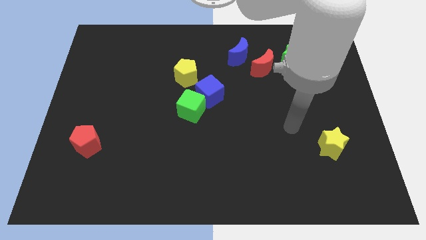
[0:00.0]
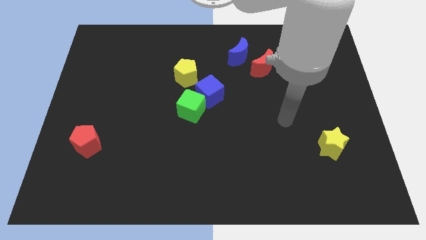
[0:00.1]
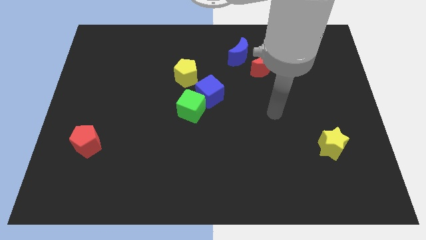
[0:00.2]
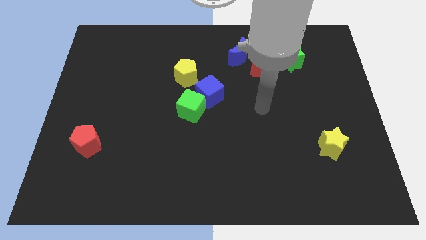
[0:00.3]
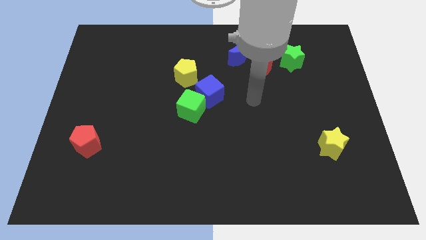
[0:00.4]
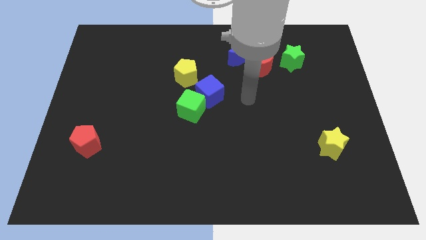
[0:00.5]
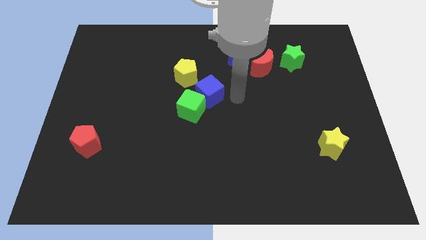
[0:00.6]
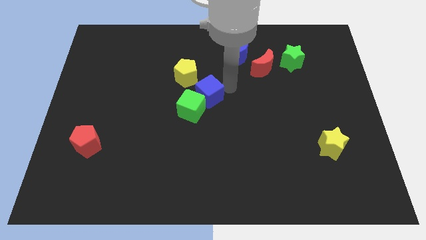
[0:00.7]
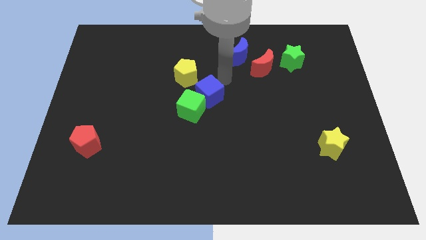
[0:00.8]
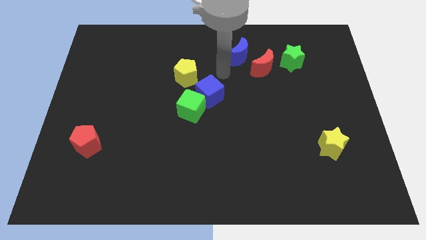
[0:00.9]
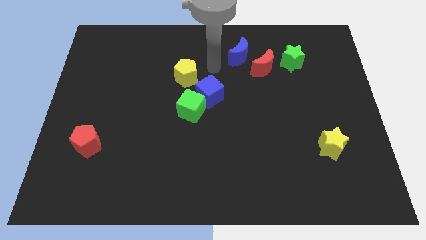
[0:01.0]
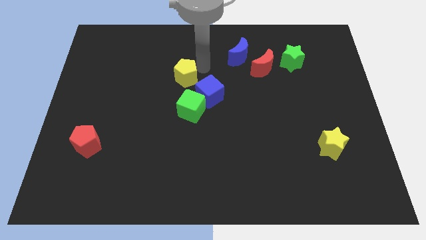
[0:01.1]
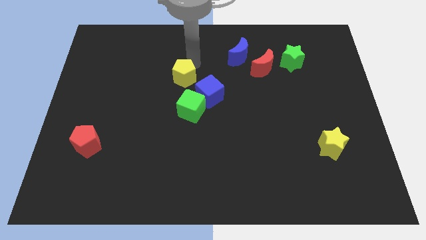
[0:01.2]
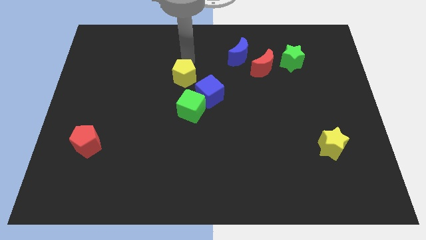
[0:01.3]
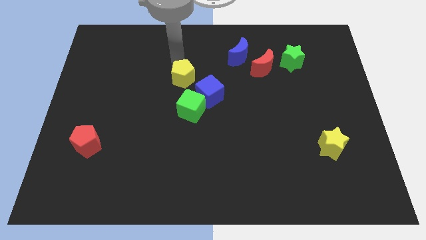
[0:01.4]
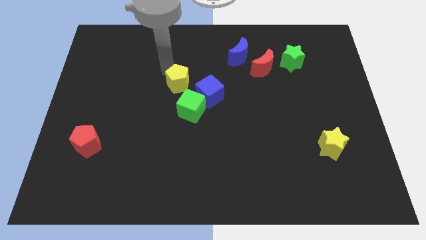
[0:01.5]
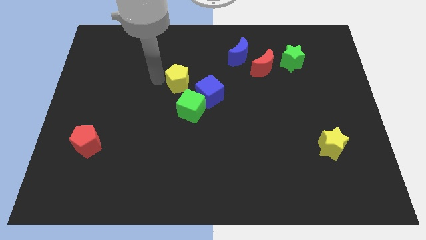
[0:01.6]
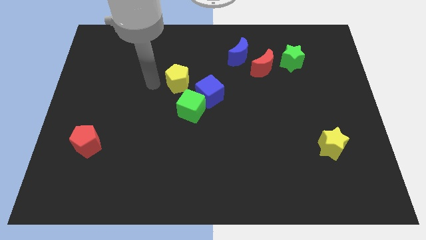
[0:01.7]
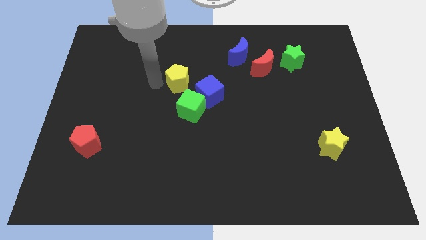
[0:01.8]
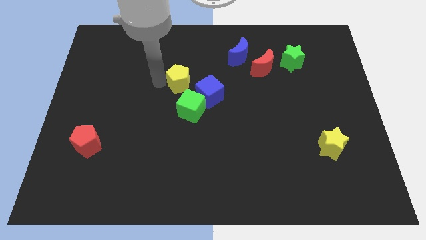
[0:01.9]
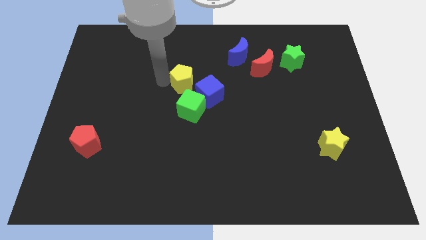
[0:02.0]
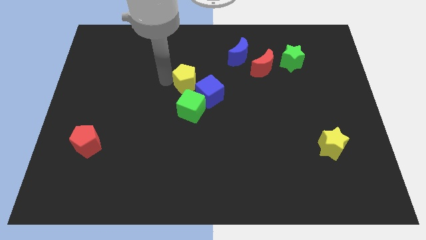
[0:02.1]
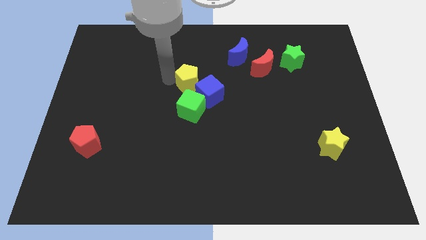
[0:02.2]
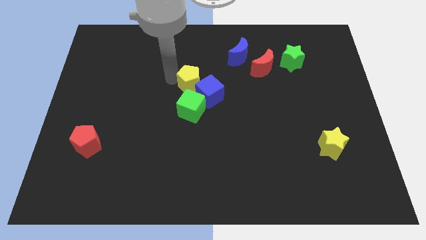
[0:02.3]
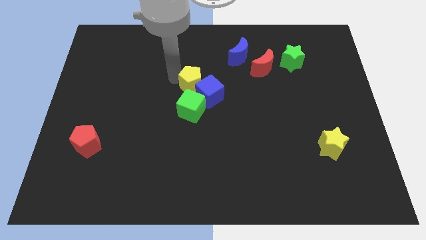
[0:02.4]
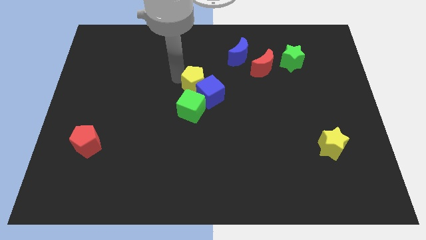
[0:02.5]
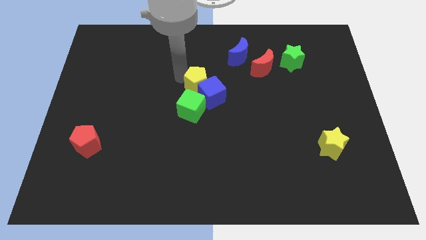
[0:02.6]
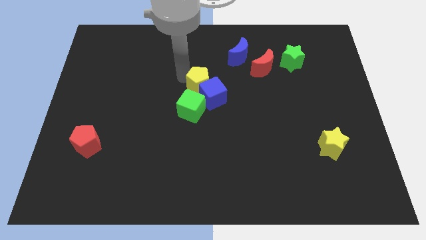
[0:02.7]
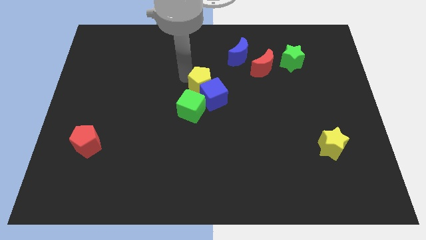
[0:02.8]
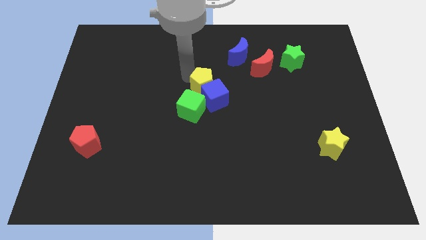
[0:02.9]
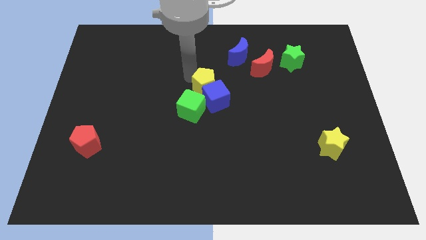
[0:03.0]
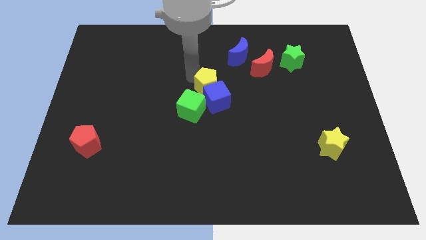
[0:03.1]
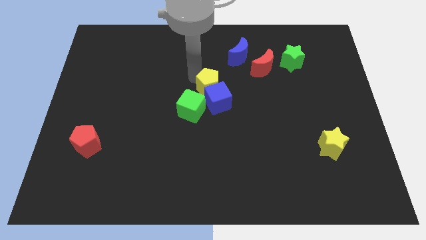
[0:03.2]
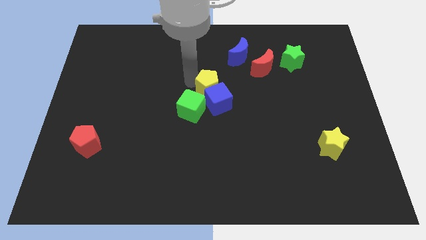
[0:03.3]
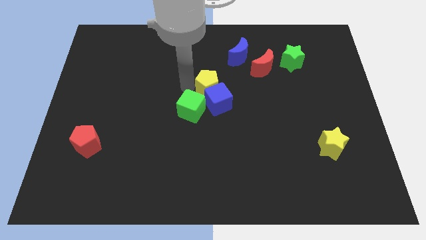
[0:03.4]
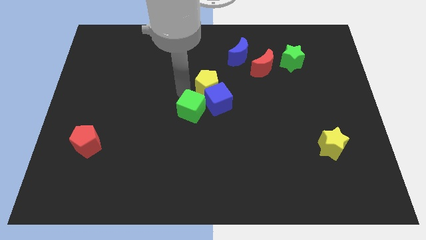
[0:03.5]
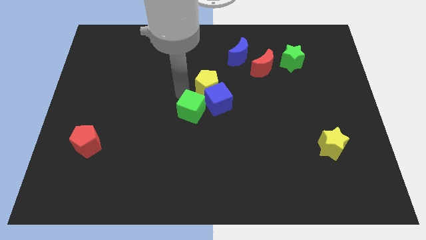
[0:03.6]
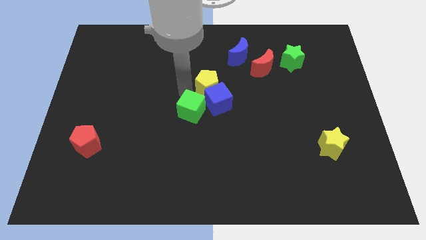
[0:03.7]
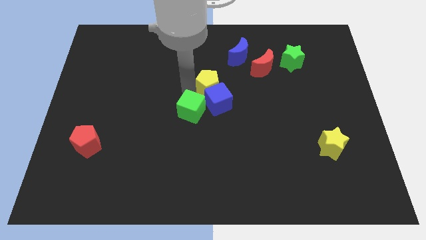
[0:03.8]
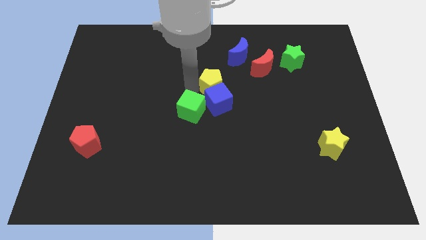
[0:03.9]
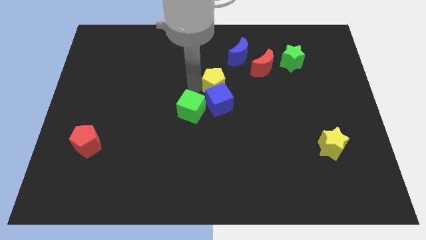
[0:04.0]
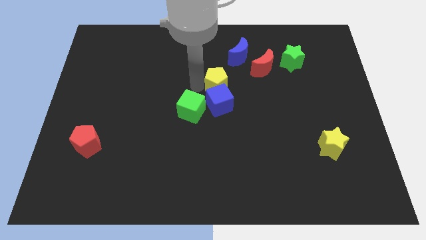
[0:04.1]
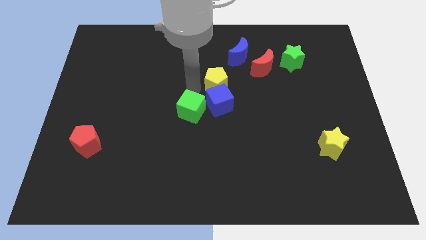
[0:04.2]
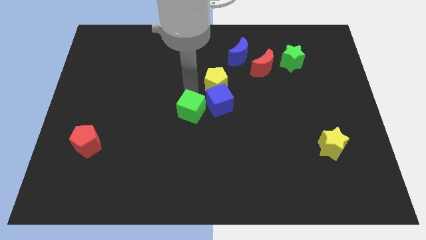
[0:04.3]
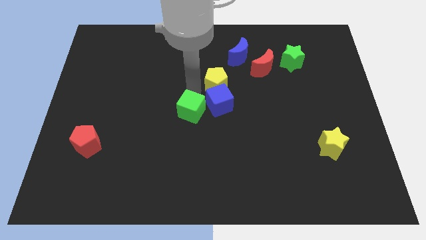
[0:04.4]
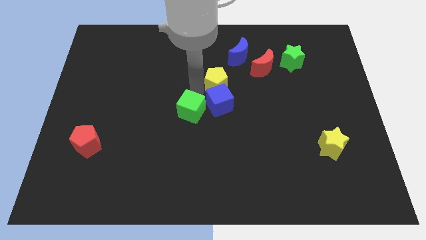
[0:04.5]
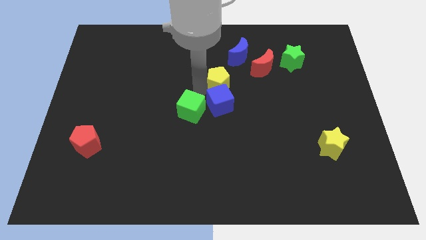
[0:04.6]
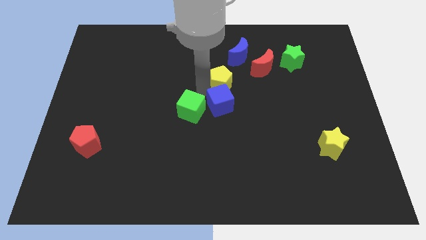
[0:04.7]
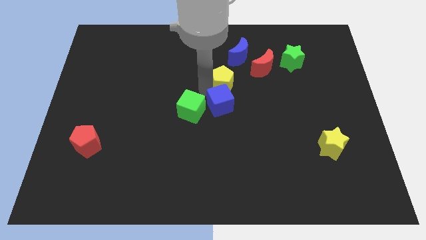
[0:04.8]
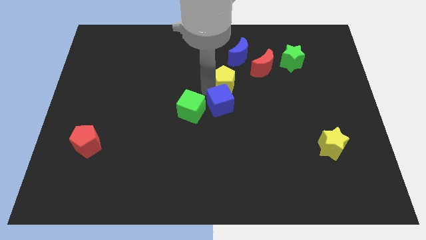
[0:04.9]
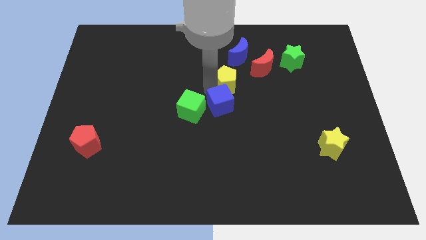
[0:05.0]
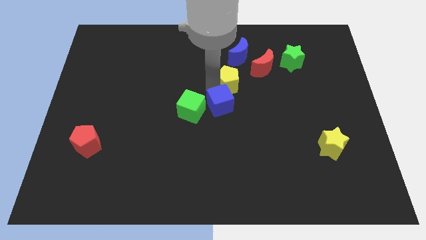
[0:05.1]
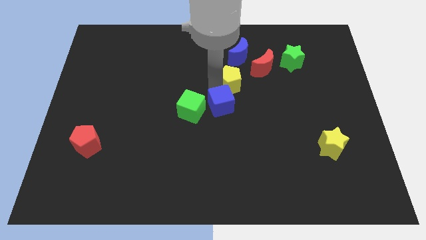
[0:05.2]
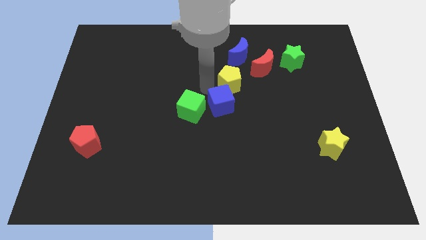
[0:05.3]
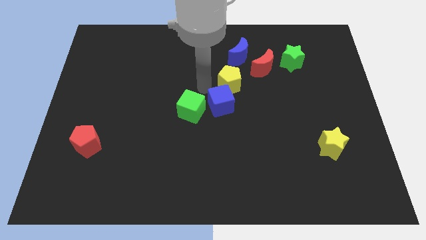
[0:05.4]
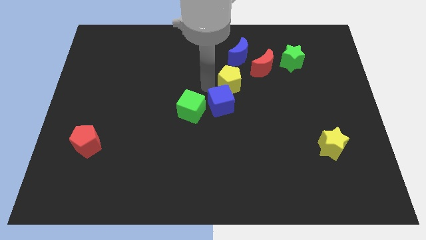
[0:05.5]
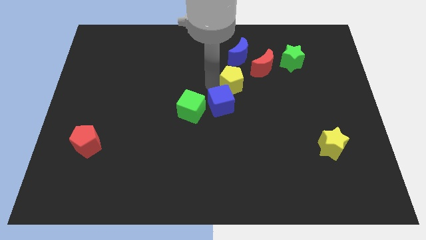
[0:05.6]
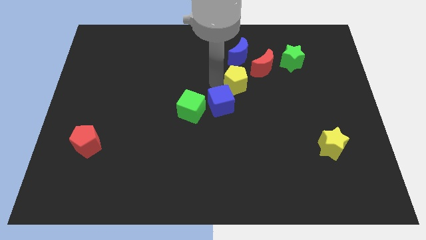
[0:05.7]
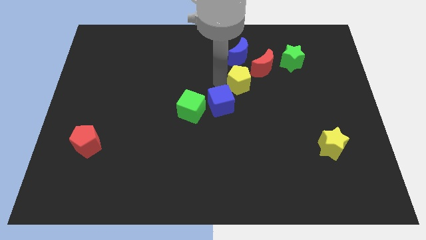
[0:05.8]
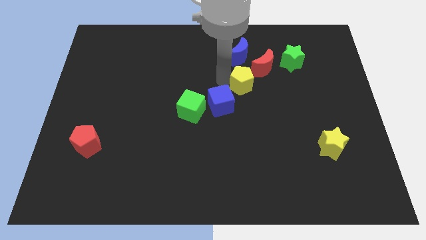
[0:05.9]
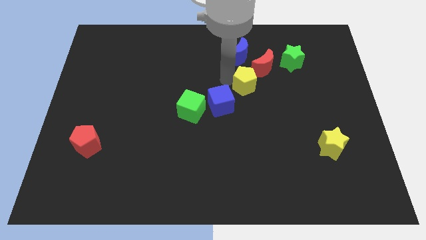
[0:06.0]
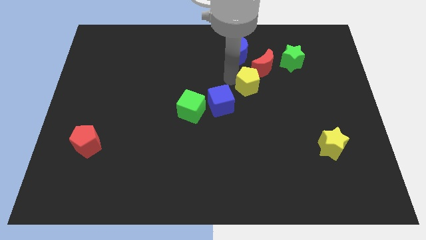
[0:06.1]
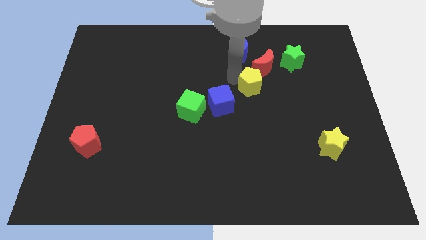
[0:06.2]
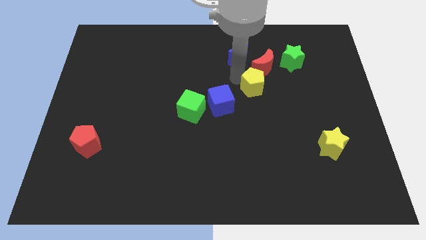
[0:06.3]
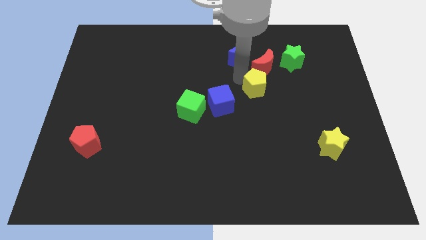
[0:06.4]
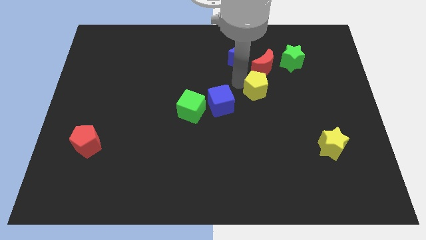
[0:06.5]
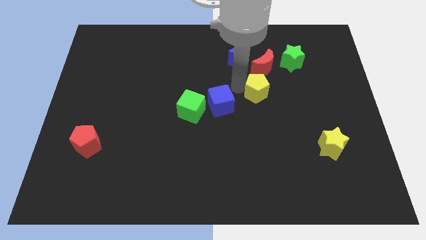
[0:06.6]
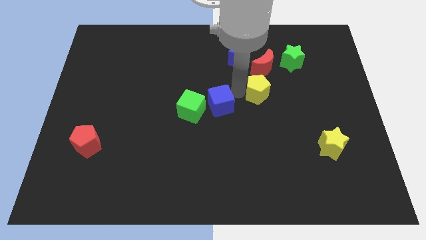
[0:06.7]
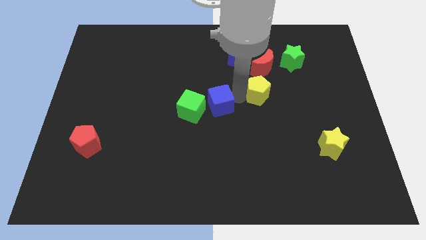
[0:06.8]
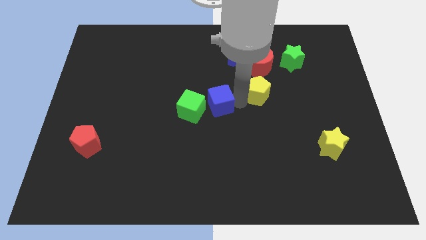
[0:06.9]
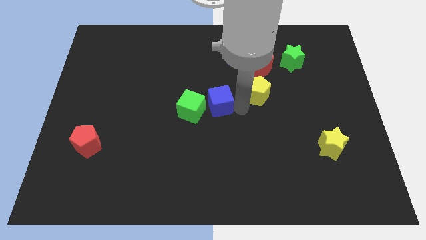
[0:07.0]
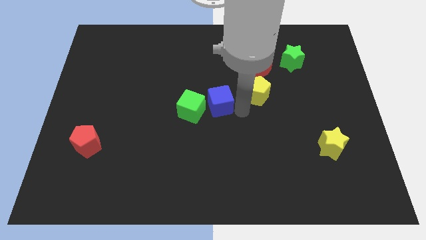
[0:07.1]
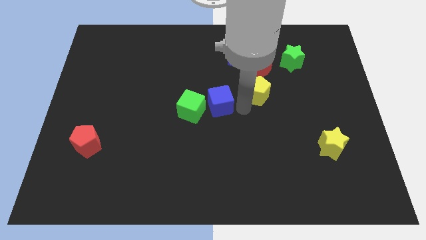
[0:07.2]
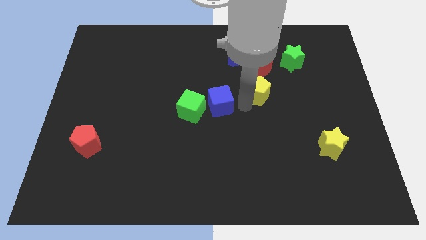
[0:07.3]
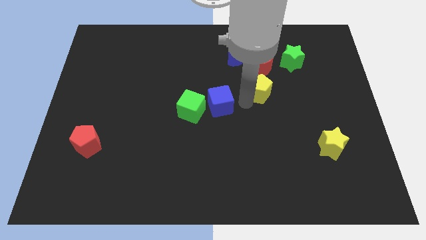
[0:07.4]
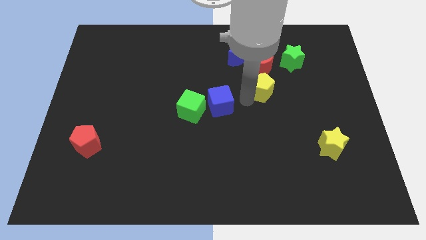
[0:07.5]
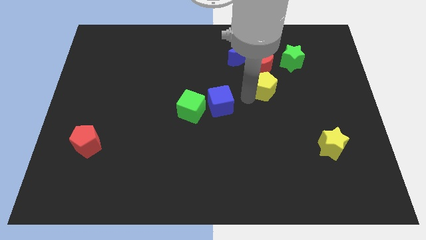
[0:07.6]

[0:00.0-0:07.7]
push the yellow pentagon to the bottom left side of the green star
